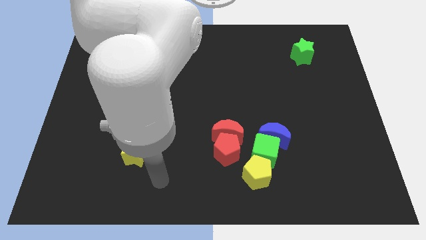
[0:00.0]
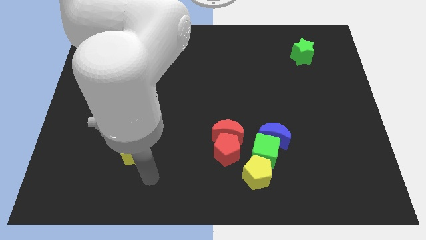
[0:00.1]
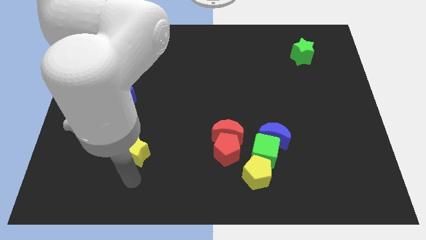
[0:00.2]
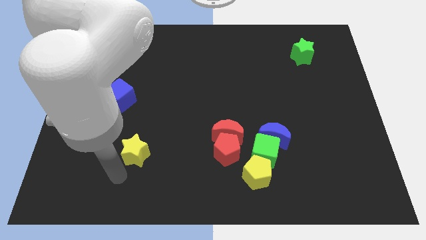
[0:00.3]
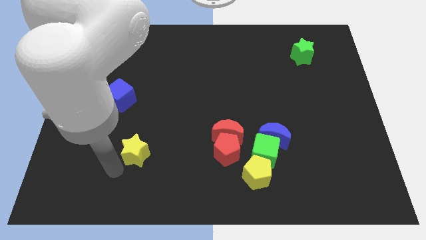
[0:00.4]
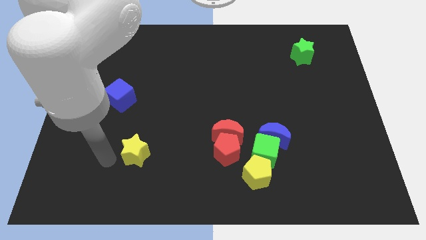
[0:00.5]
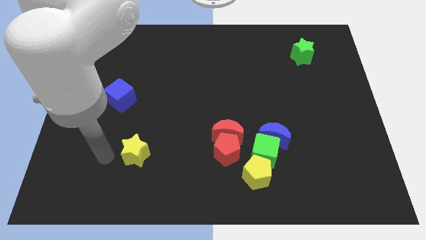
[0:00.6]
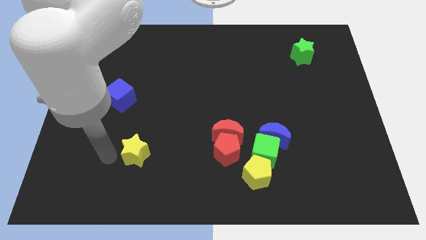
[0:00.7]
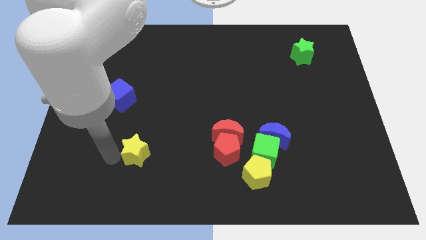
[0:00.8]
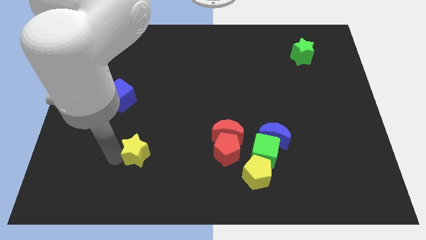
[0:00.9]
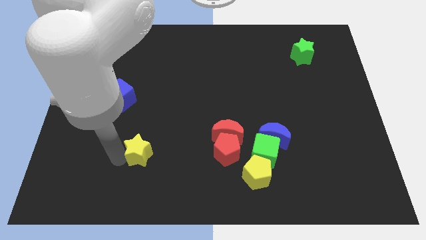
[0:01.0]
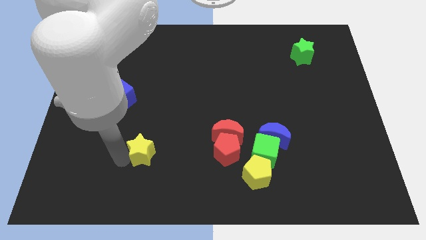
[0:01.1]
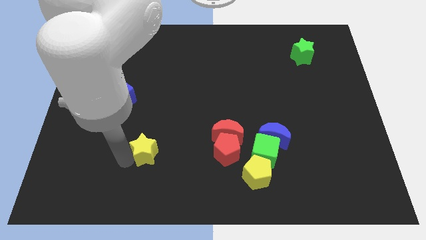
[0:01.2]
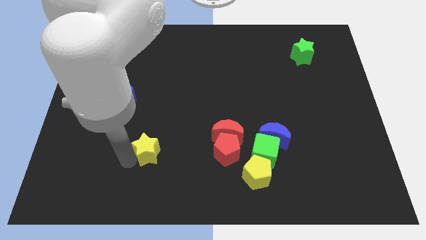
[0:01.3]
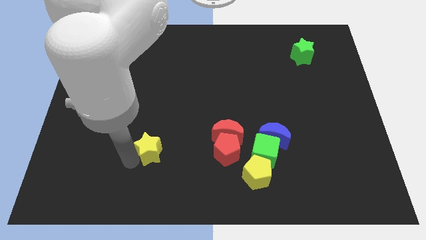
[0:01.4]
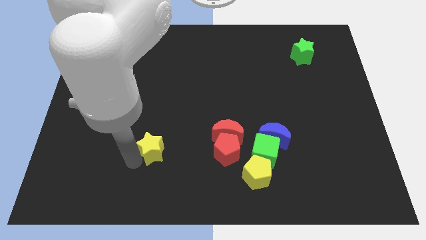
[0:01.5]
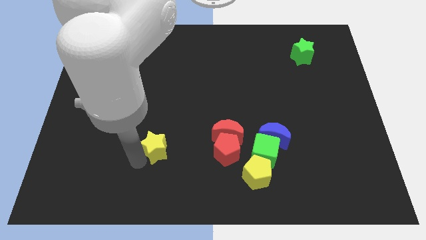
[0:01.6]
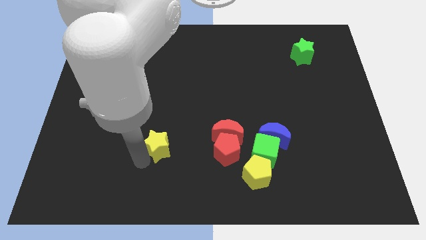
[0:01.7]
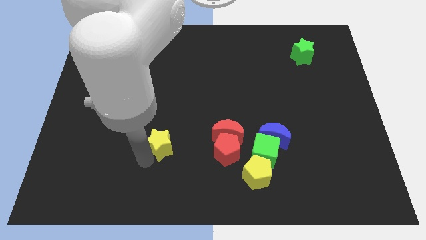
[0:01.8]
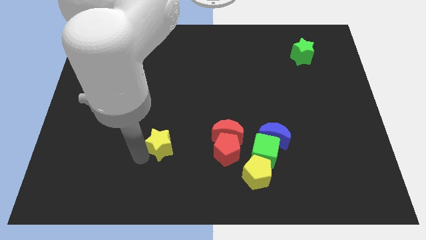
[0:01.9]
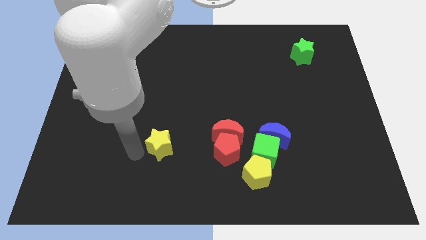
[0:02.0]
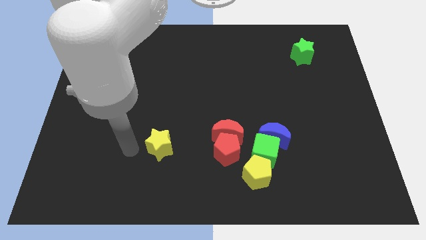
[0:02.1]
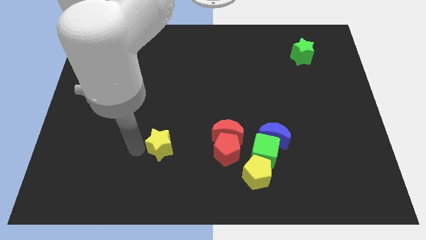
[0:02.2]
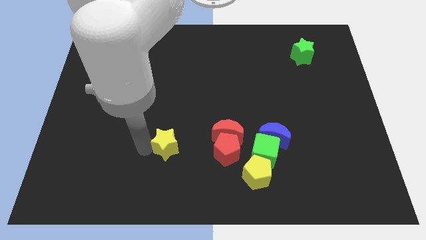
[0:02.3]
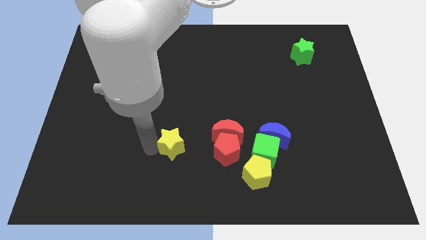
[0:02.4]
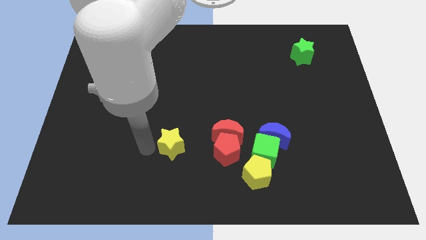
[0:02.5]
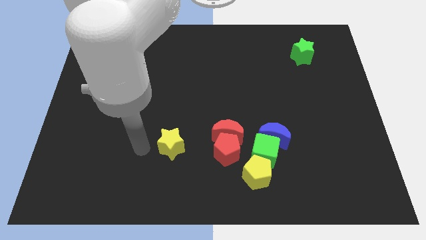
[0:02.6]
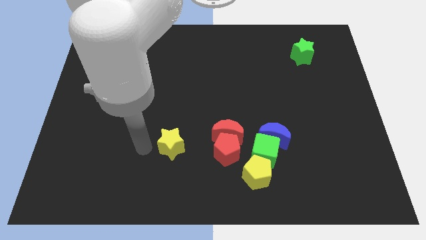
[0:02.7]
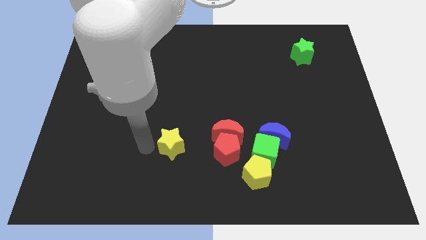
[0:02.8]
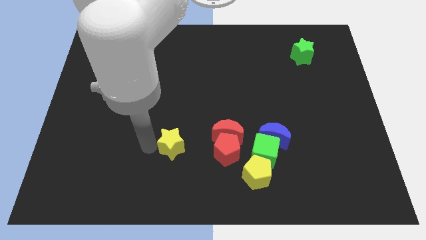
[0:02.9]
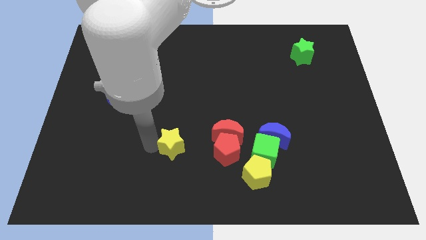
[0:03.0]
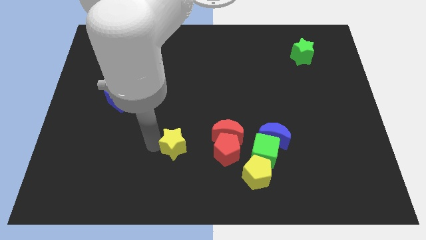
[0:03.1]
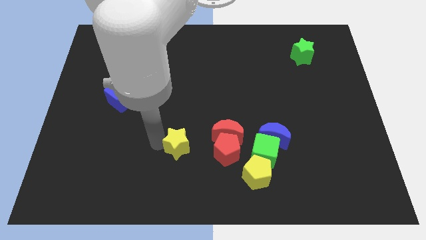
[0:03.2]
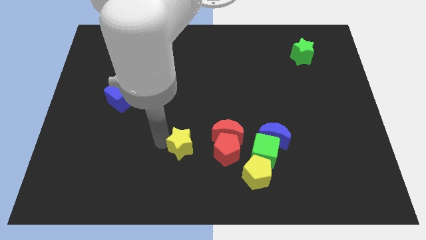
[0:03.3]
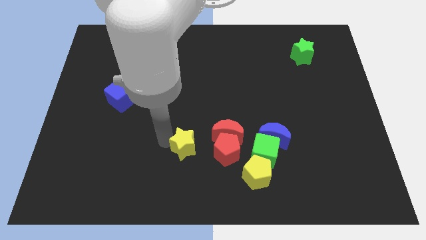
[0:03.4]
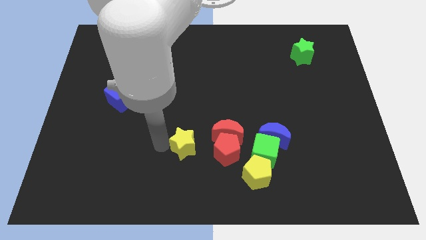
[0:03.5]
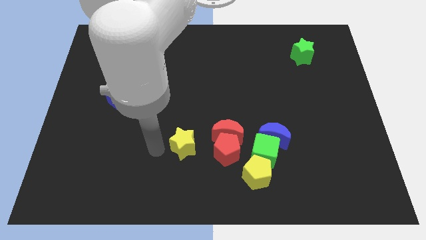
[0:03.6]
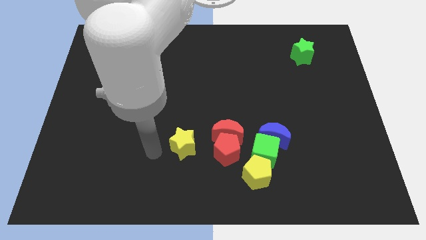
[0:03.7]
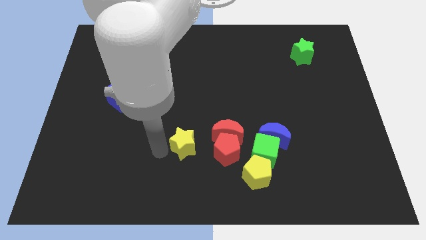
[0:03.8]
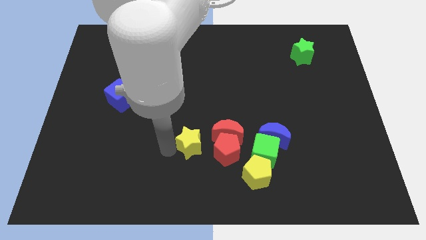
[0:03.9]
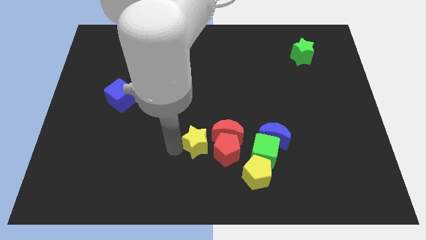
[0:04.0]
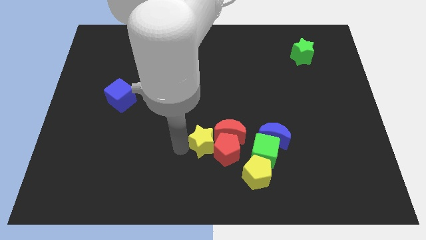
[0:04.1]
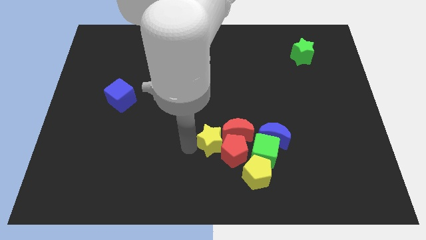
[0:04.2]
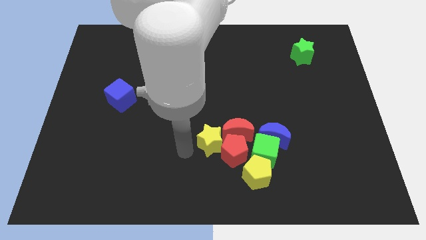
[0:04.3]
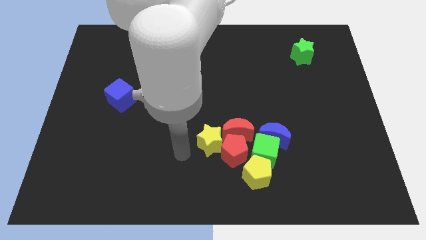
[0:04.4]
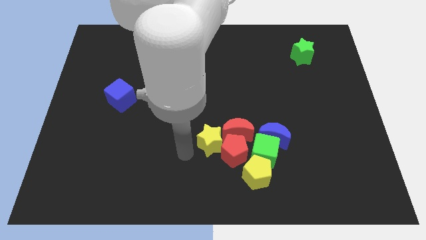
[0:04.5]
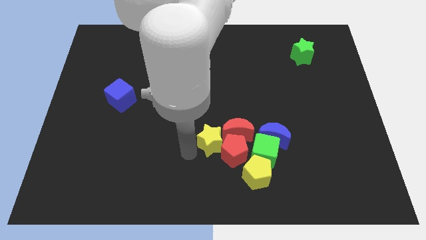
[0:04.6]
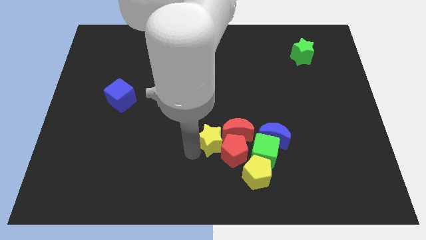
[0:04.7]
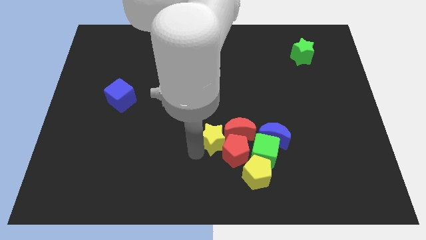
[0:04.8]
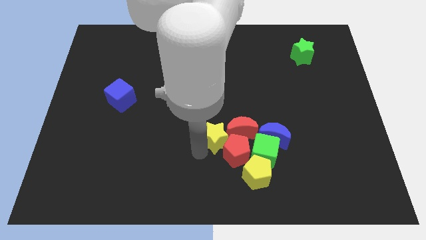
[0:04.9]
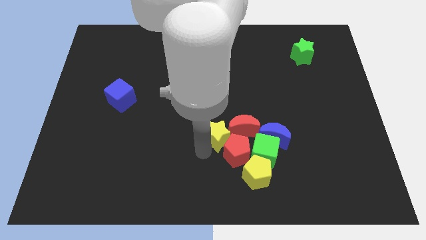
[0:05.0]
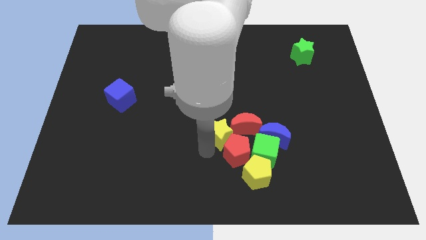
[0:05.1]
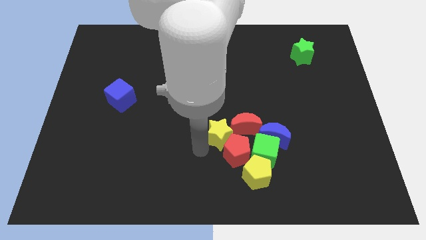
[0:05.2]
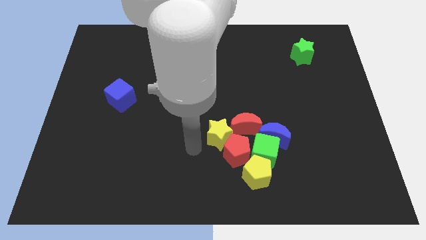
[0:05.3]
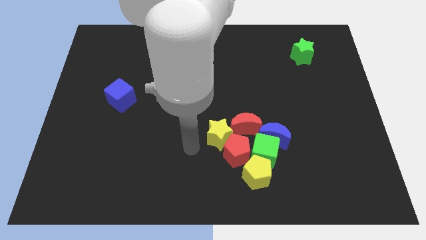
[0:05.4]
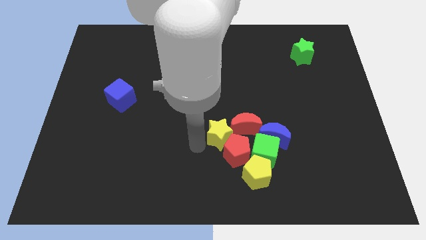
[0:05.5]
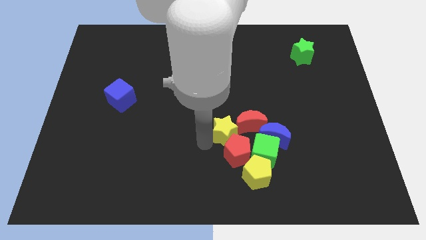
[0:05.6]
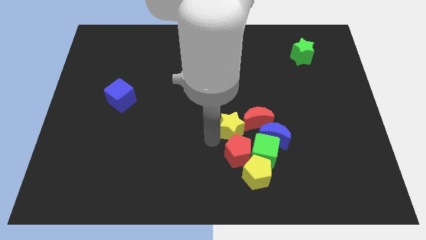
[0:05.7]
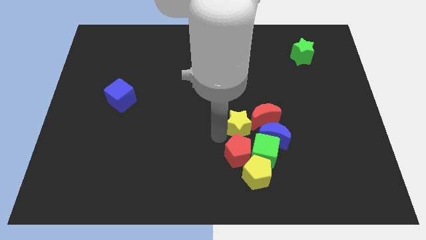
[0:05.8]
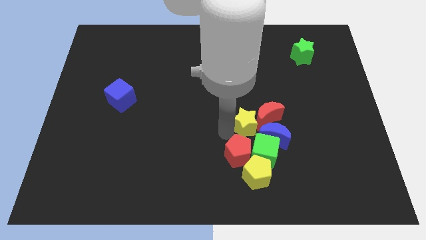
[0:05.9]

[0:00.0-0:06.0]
slide the yellow star close to the red moon
